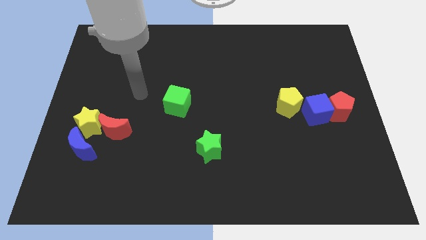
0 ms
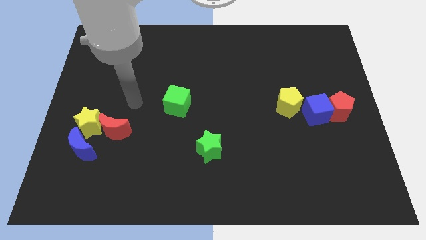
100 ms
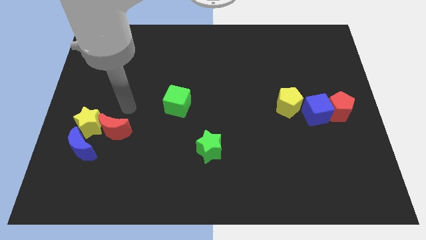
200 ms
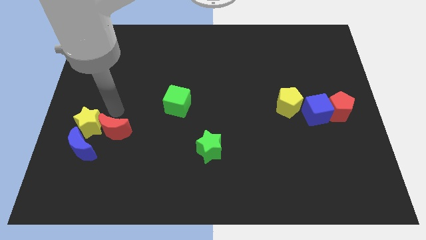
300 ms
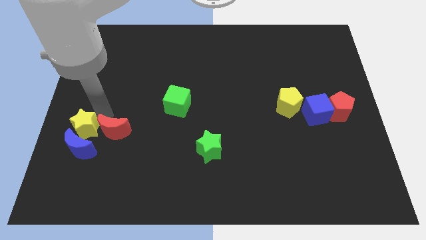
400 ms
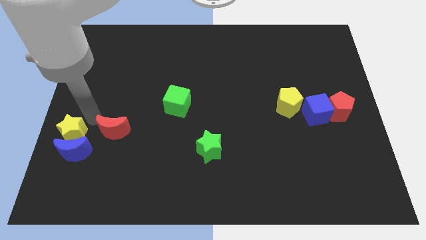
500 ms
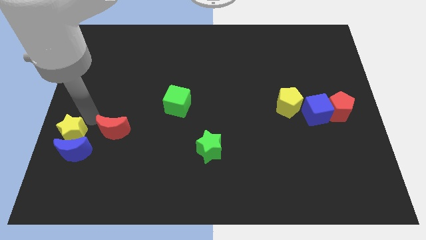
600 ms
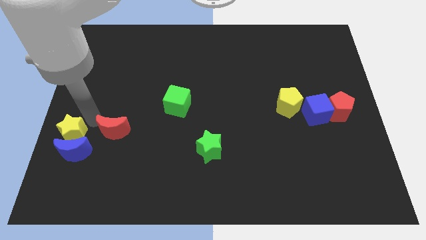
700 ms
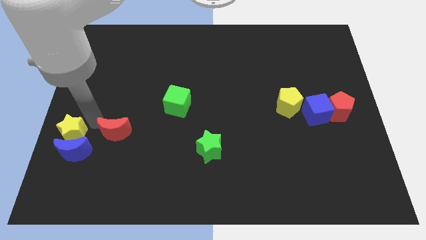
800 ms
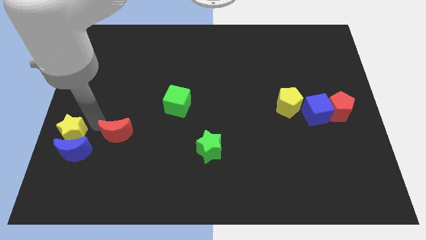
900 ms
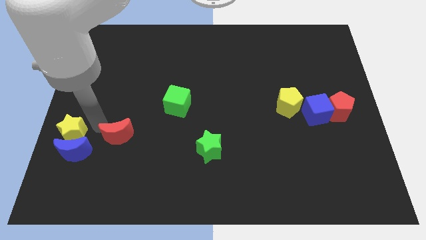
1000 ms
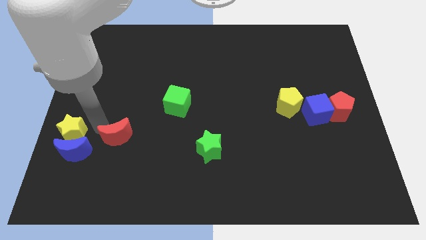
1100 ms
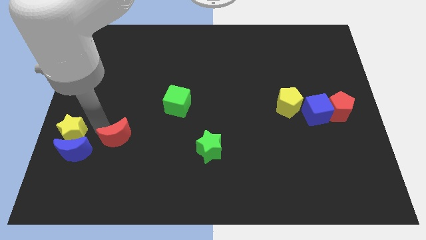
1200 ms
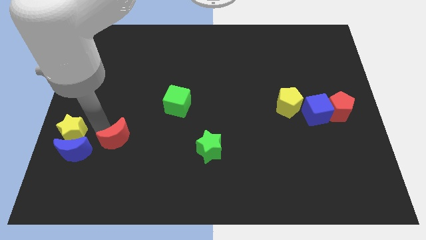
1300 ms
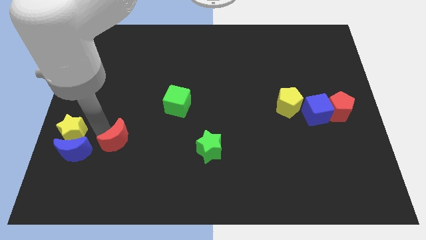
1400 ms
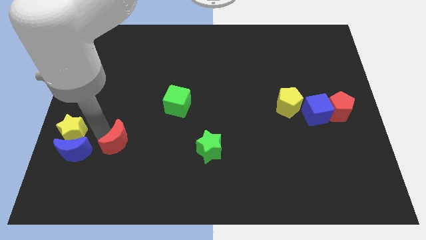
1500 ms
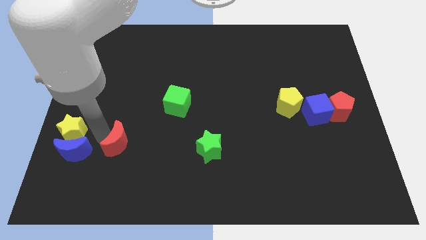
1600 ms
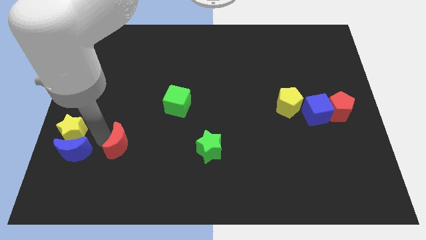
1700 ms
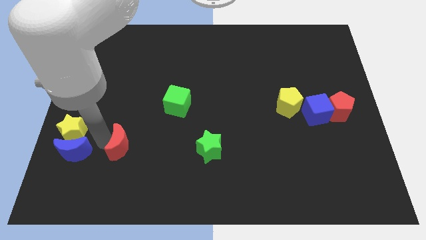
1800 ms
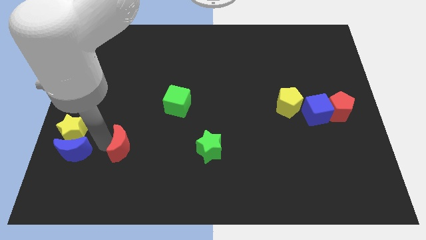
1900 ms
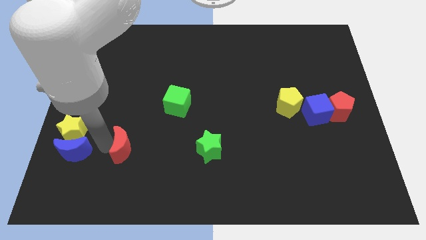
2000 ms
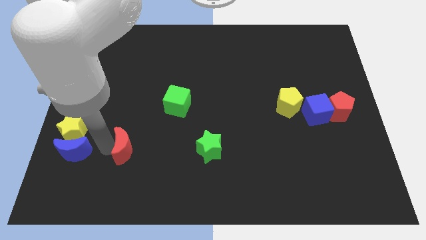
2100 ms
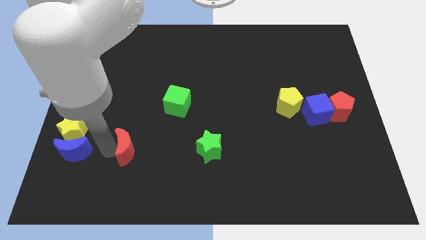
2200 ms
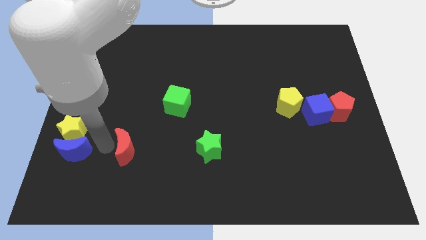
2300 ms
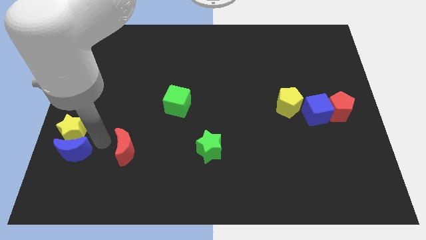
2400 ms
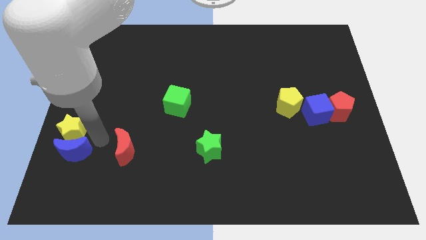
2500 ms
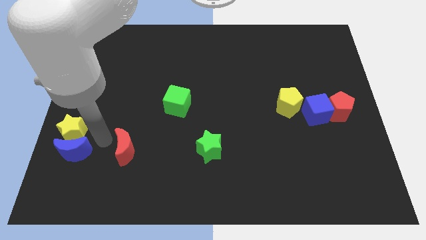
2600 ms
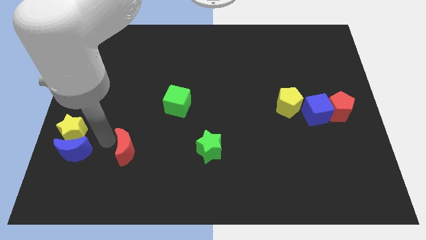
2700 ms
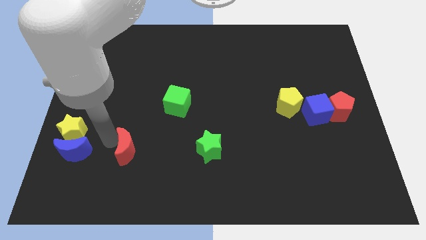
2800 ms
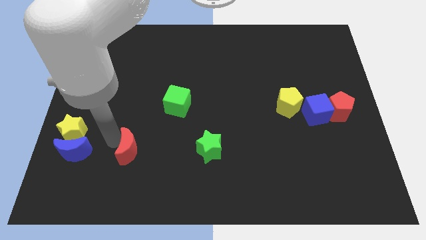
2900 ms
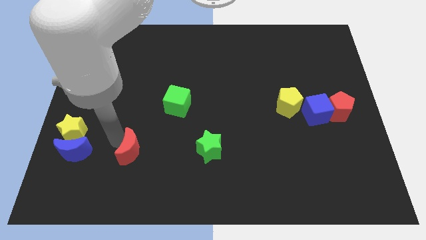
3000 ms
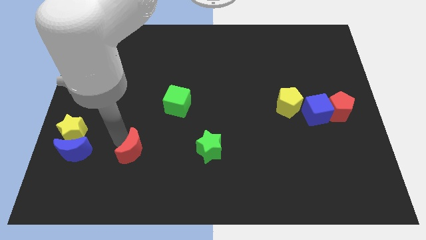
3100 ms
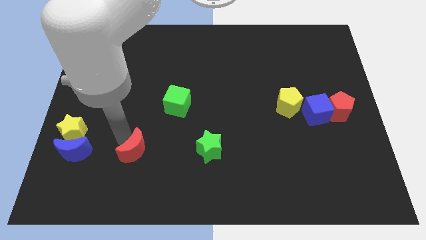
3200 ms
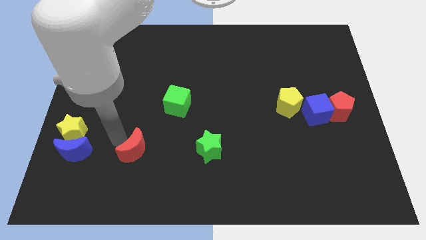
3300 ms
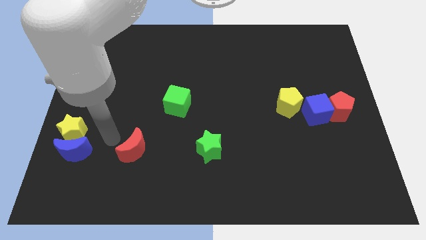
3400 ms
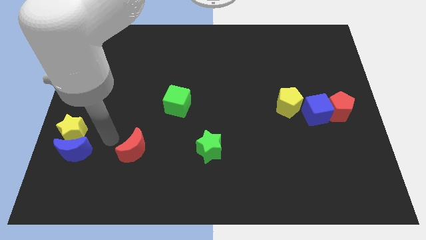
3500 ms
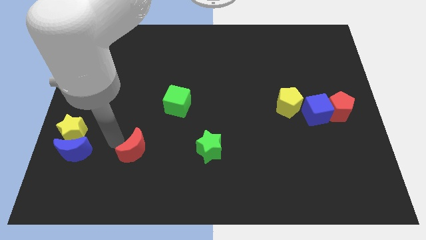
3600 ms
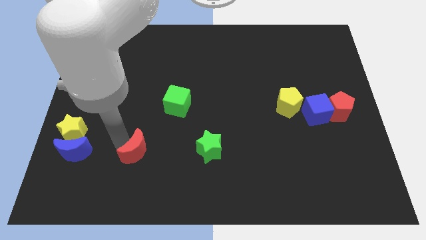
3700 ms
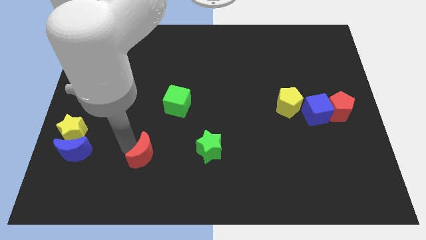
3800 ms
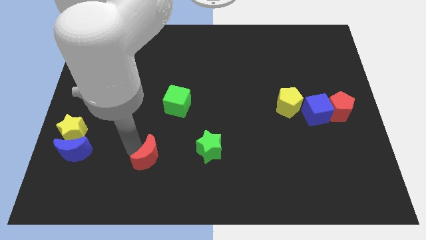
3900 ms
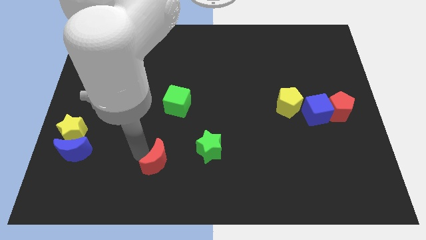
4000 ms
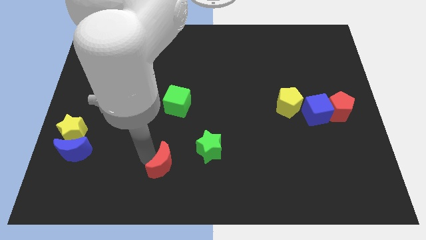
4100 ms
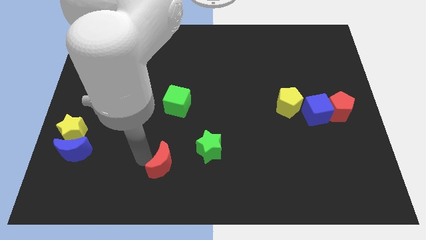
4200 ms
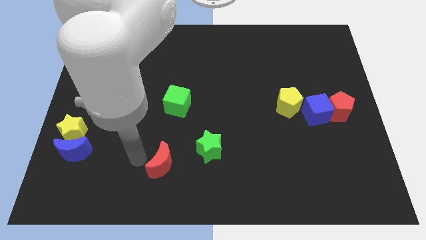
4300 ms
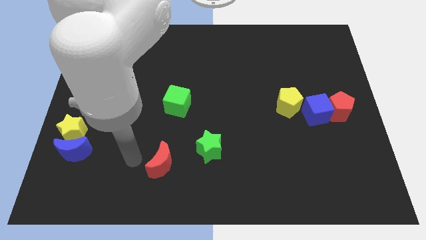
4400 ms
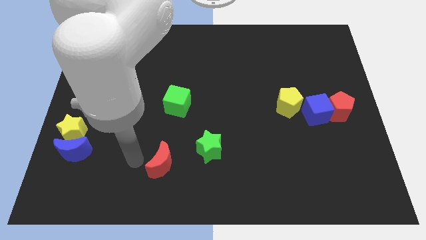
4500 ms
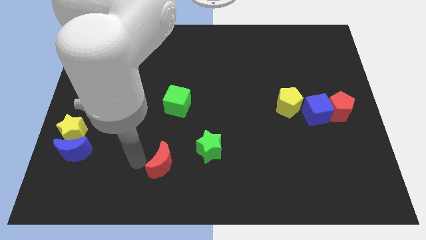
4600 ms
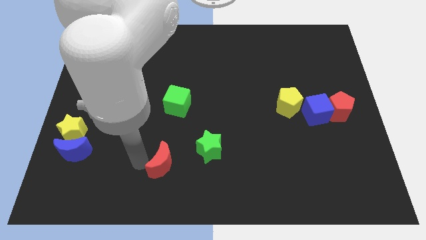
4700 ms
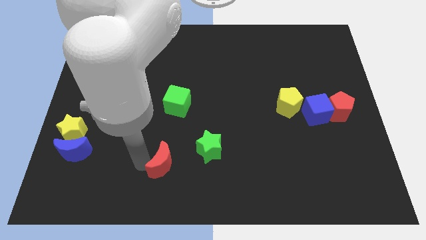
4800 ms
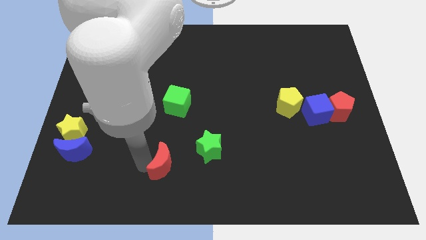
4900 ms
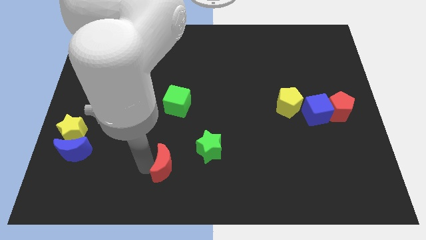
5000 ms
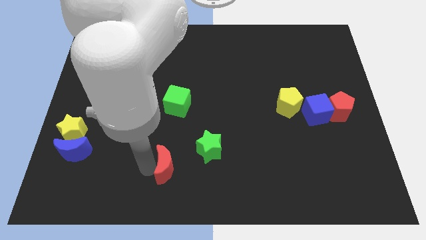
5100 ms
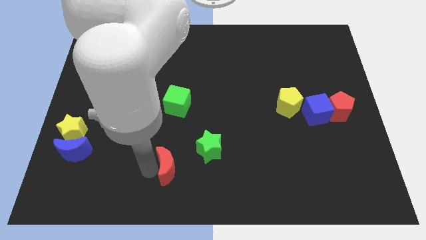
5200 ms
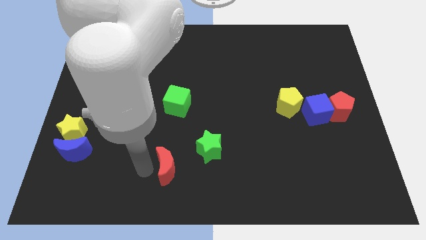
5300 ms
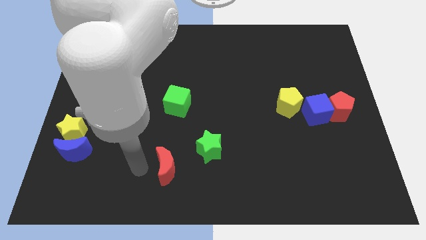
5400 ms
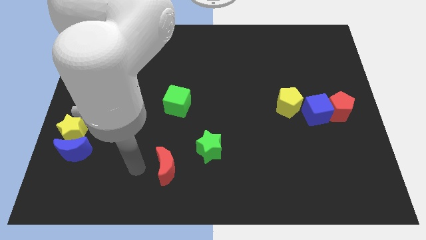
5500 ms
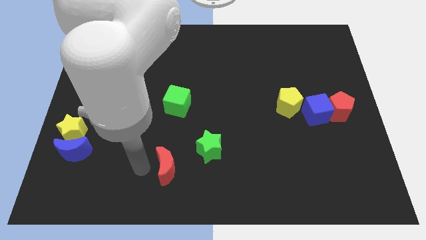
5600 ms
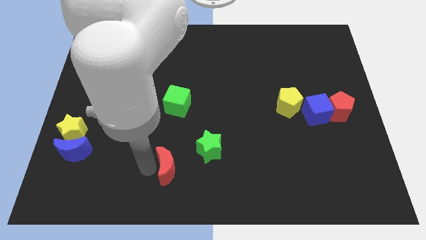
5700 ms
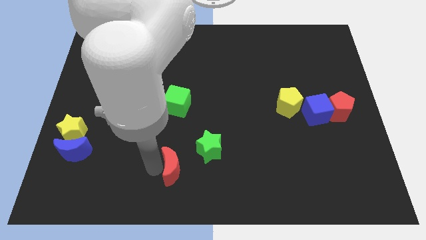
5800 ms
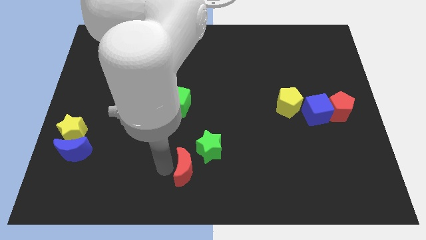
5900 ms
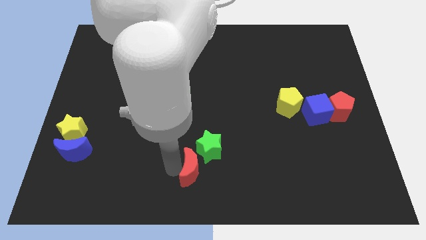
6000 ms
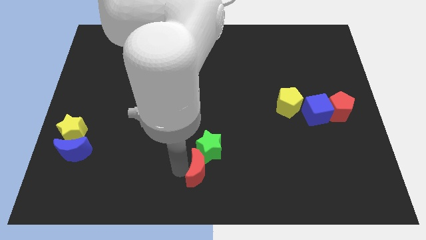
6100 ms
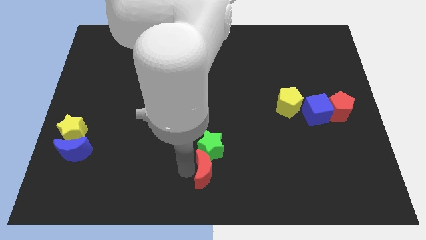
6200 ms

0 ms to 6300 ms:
push the red moon diagonally down and to the right of the green star

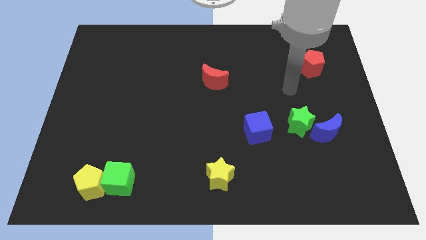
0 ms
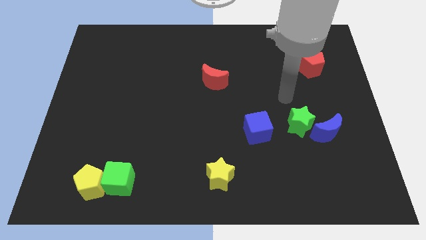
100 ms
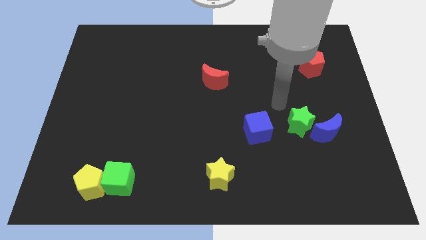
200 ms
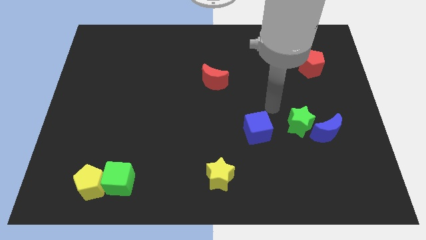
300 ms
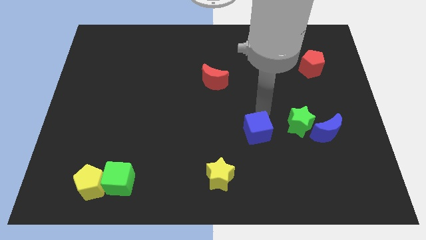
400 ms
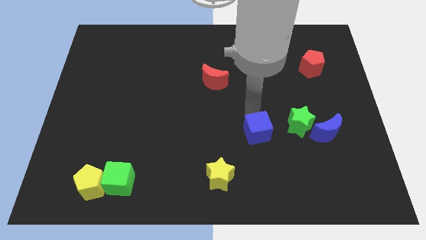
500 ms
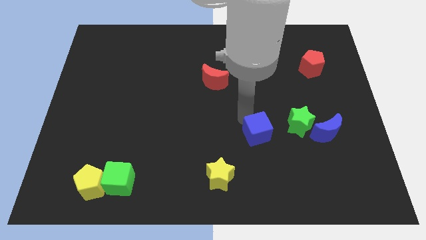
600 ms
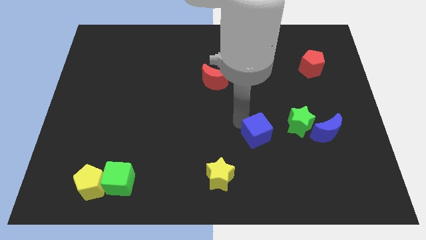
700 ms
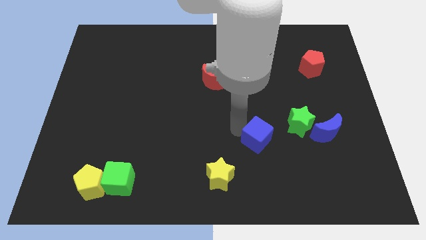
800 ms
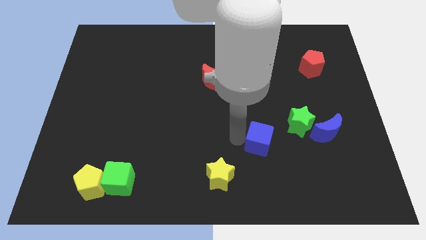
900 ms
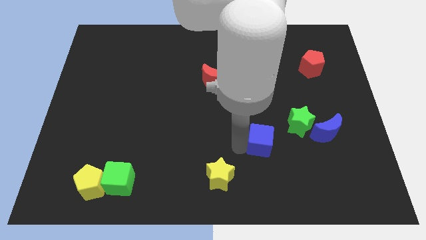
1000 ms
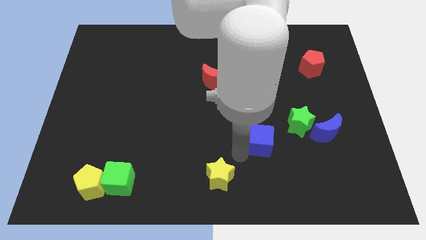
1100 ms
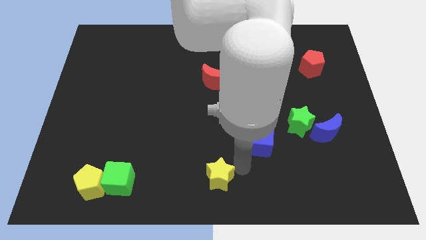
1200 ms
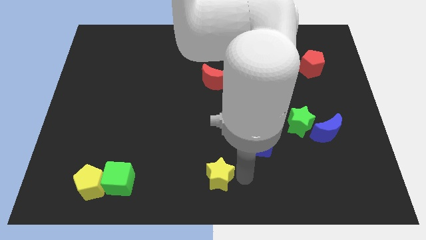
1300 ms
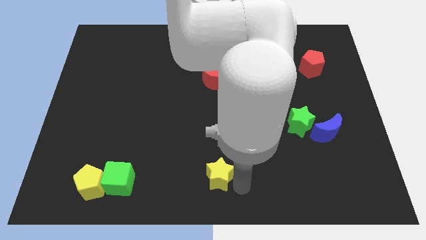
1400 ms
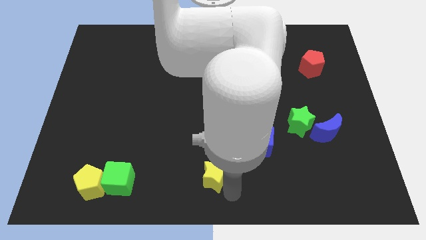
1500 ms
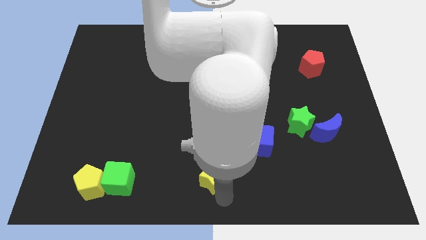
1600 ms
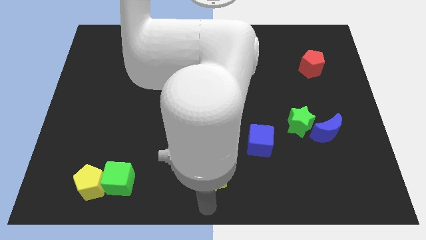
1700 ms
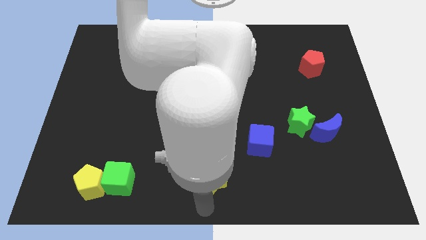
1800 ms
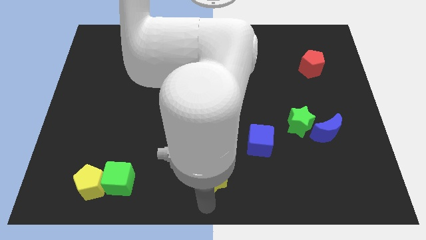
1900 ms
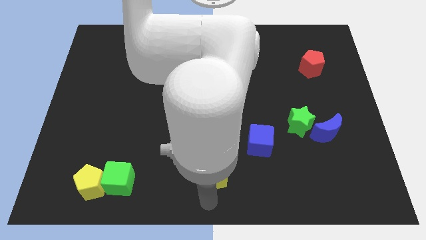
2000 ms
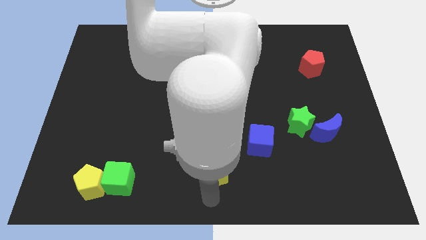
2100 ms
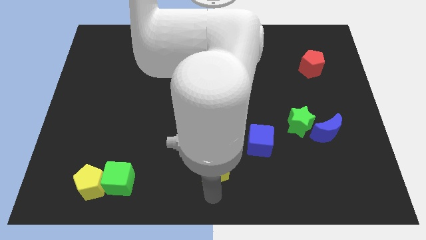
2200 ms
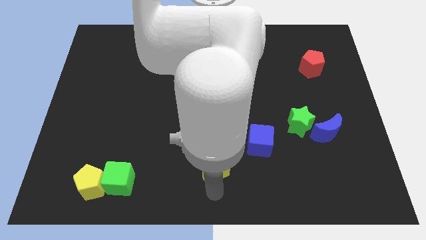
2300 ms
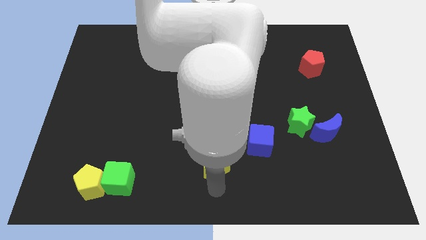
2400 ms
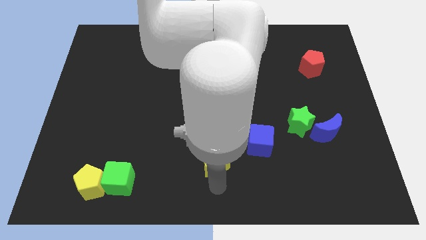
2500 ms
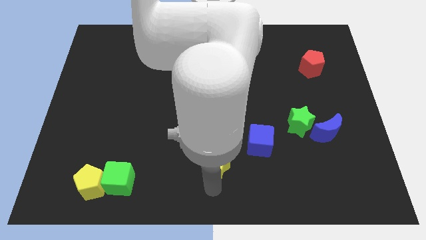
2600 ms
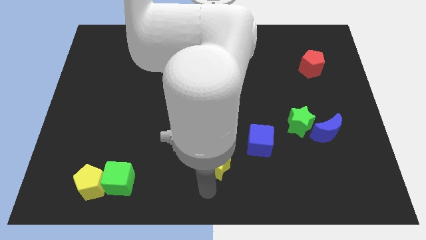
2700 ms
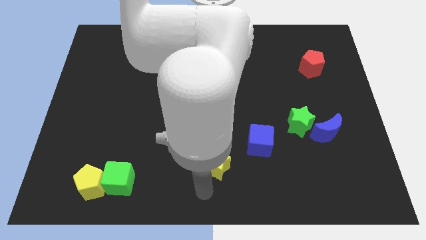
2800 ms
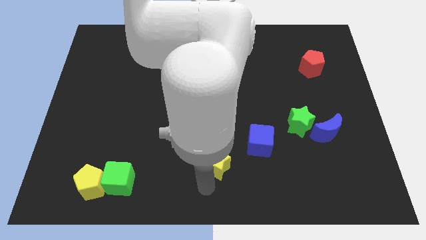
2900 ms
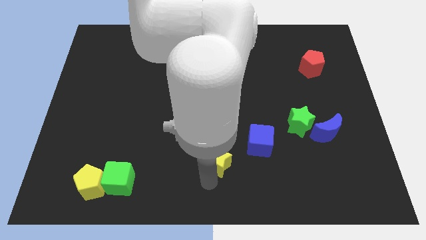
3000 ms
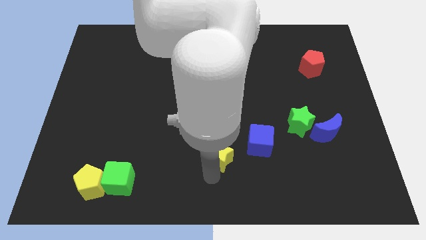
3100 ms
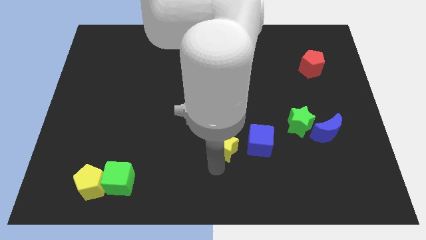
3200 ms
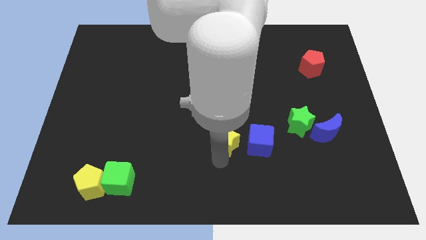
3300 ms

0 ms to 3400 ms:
slide the yellow star diagonally up and to the left of the blue cube
